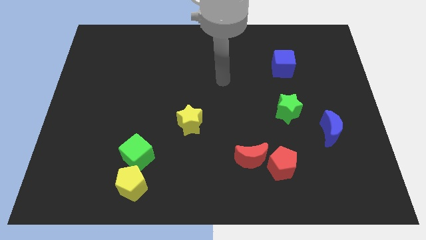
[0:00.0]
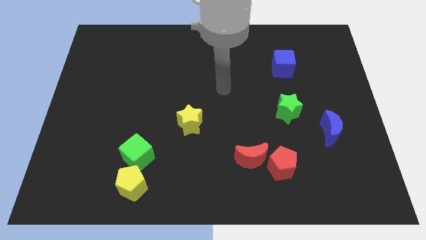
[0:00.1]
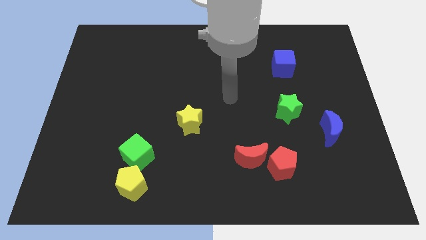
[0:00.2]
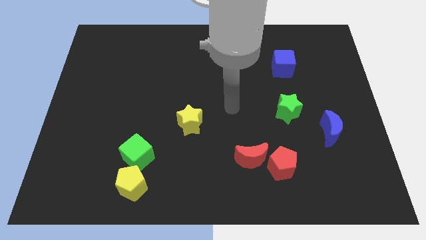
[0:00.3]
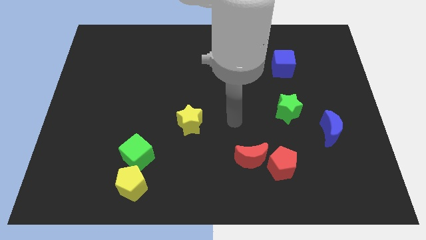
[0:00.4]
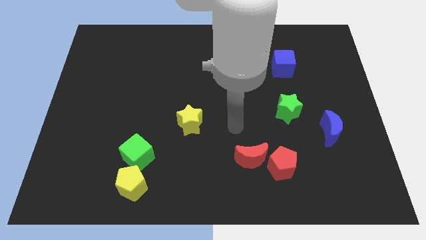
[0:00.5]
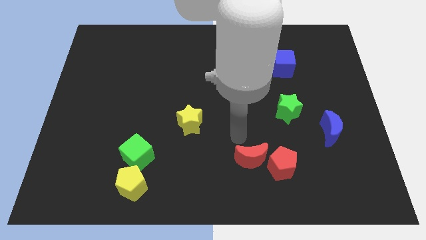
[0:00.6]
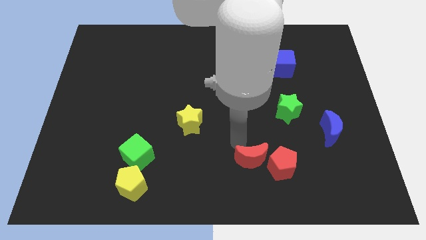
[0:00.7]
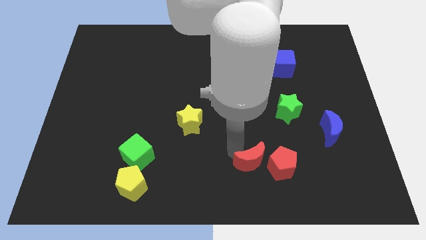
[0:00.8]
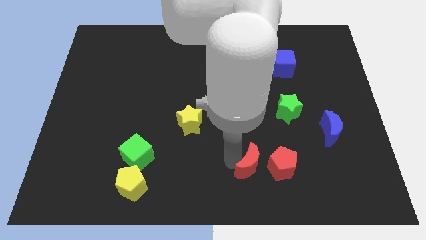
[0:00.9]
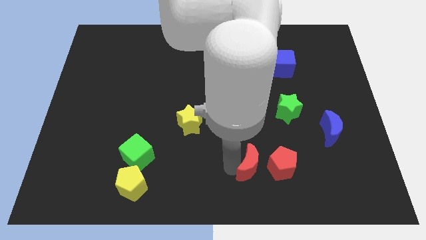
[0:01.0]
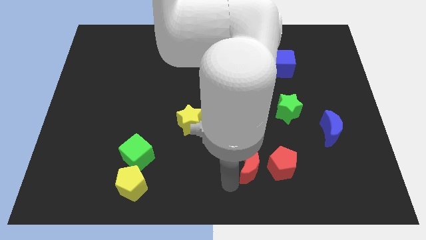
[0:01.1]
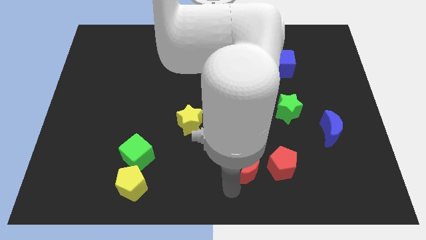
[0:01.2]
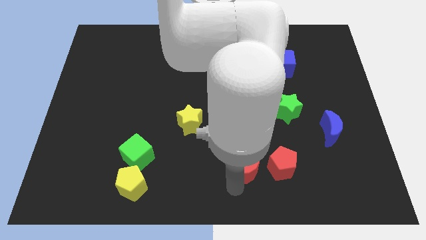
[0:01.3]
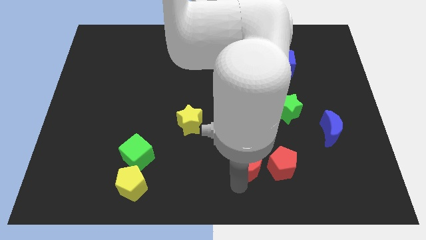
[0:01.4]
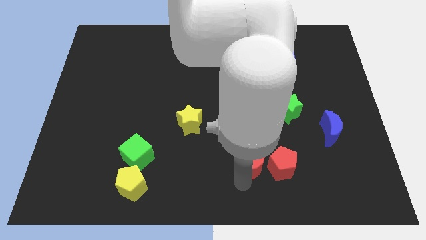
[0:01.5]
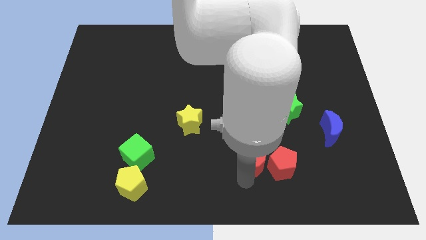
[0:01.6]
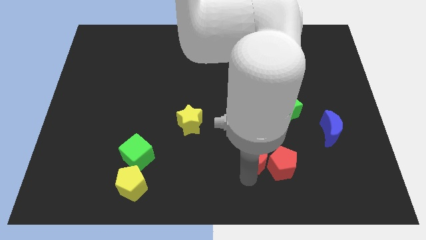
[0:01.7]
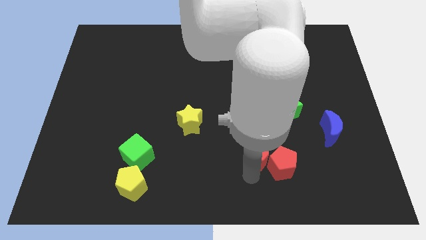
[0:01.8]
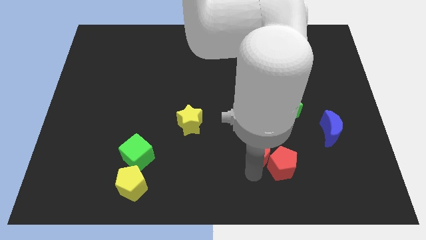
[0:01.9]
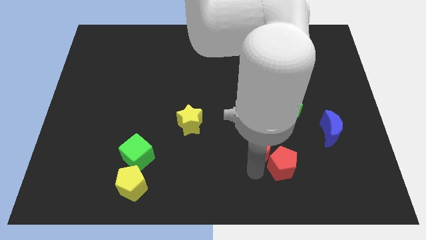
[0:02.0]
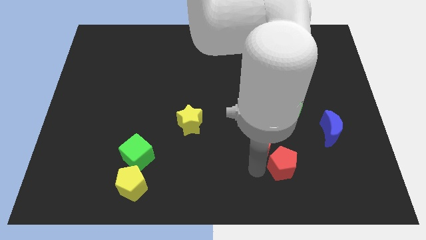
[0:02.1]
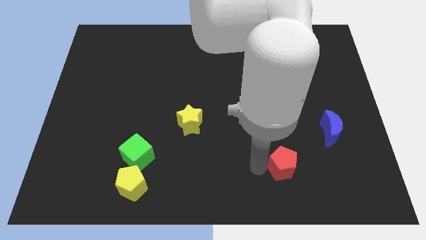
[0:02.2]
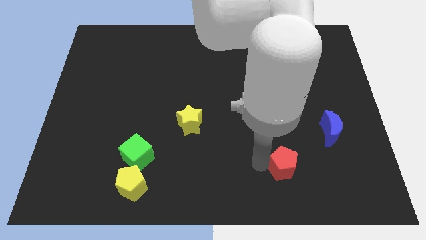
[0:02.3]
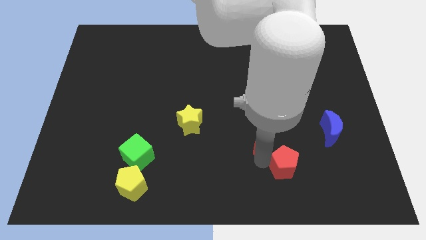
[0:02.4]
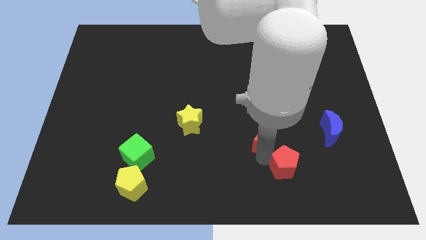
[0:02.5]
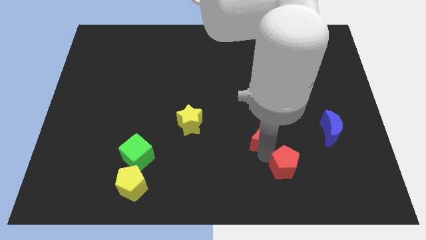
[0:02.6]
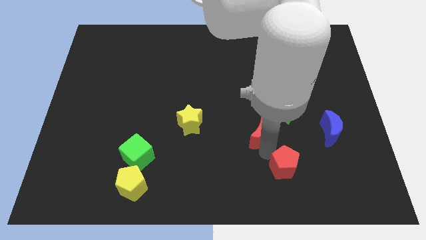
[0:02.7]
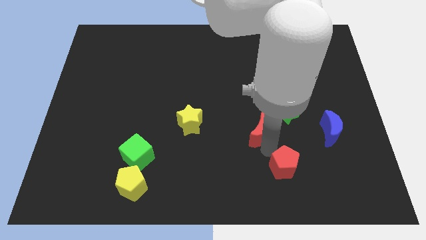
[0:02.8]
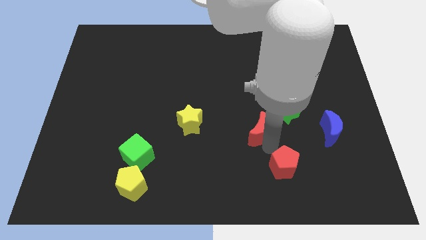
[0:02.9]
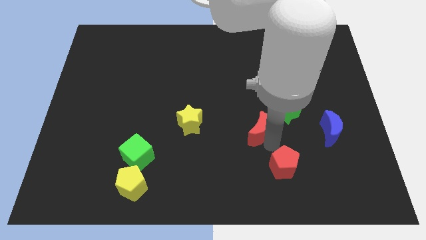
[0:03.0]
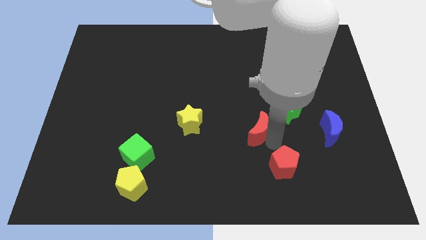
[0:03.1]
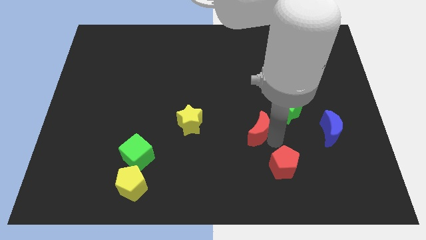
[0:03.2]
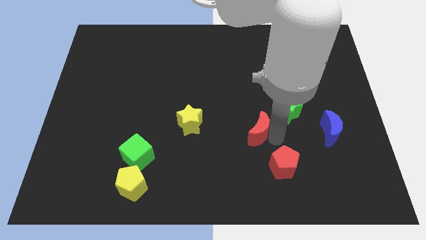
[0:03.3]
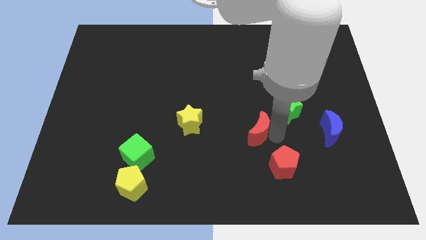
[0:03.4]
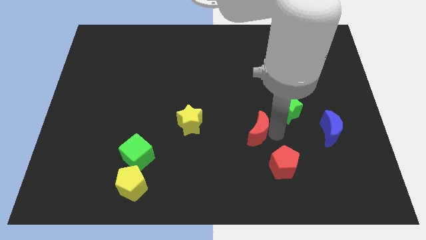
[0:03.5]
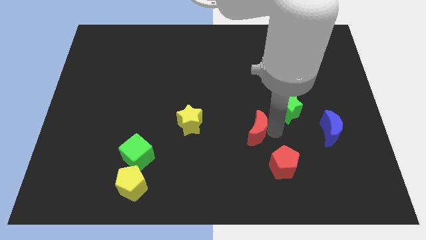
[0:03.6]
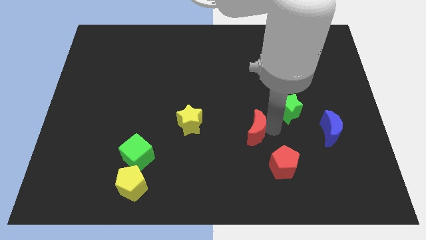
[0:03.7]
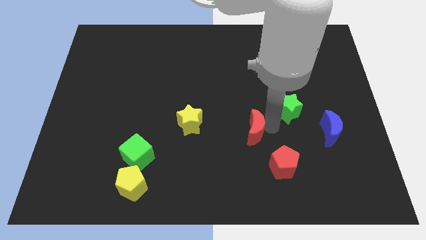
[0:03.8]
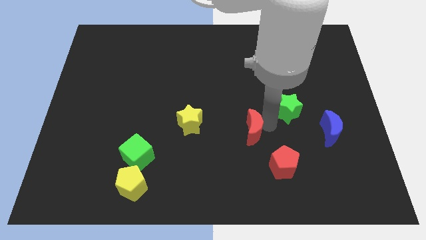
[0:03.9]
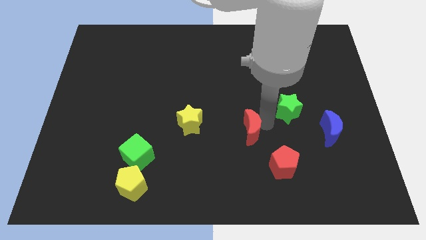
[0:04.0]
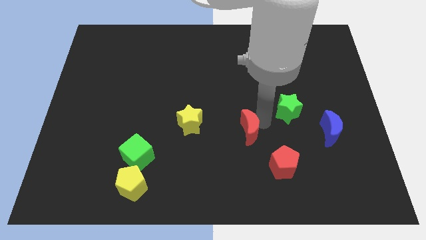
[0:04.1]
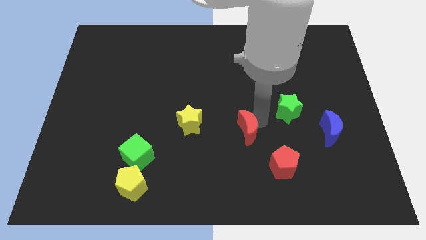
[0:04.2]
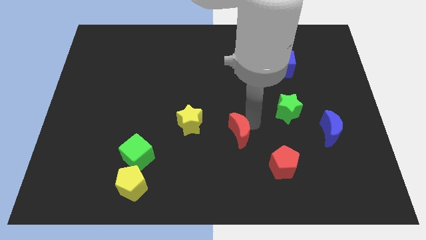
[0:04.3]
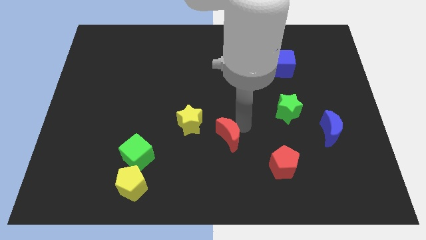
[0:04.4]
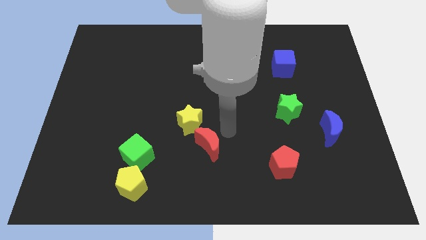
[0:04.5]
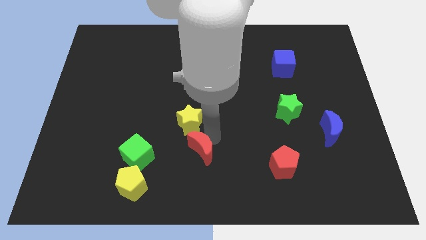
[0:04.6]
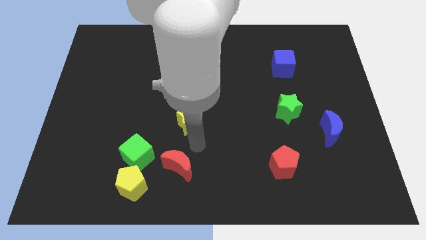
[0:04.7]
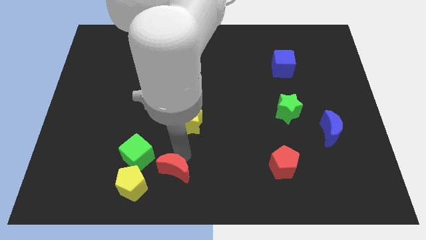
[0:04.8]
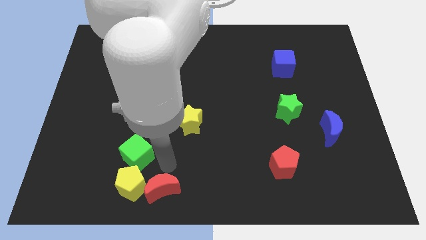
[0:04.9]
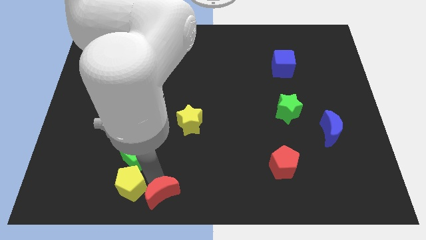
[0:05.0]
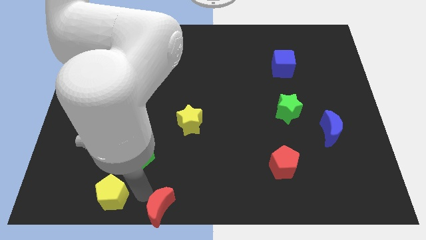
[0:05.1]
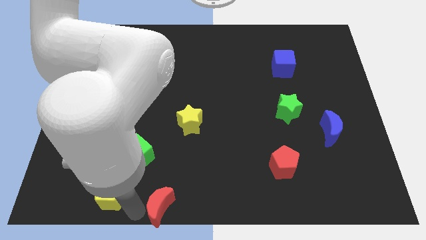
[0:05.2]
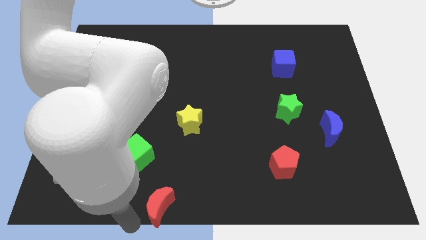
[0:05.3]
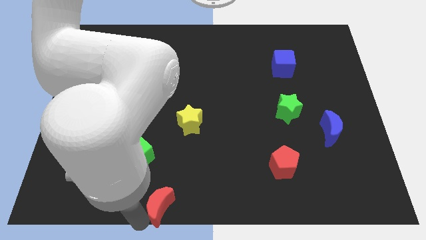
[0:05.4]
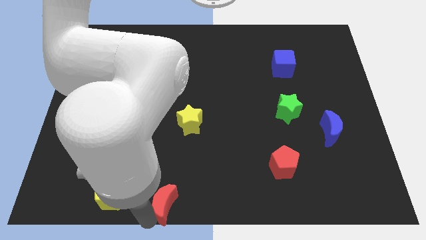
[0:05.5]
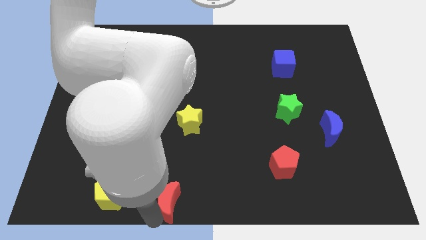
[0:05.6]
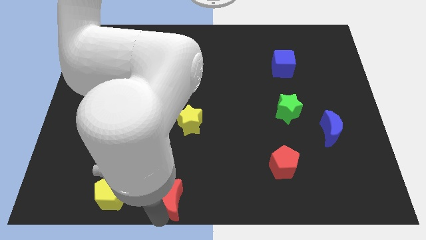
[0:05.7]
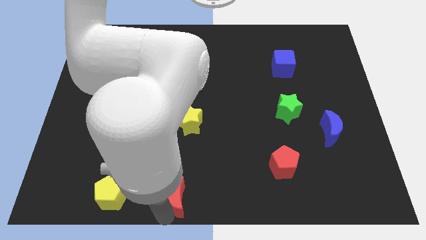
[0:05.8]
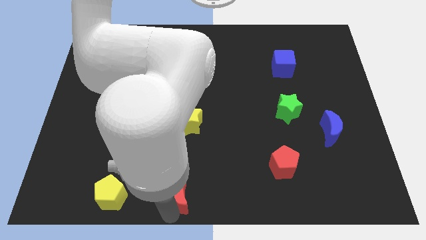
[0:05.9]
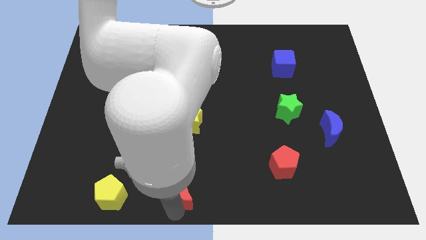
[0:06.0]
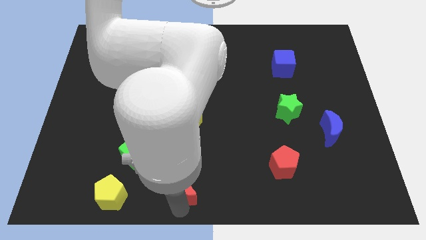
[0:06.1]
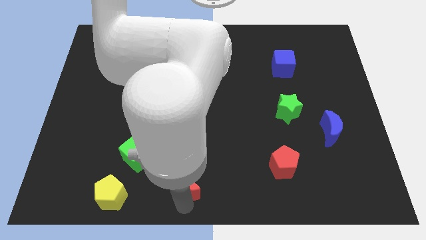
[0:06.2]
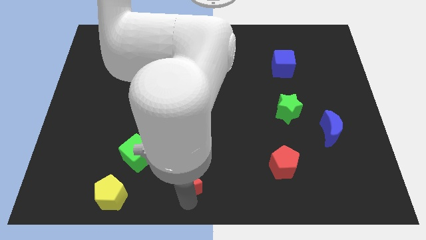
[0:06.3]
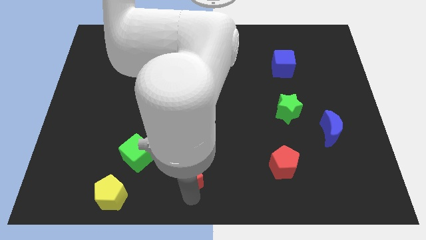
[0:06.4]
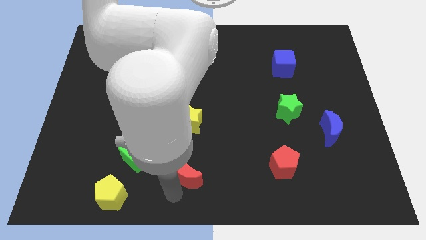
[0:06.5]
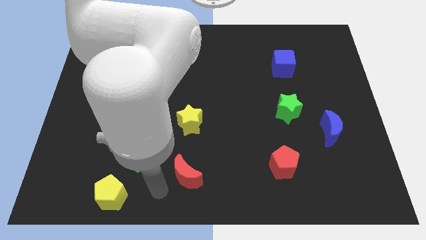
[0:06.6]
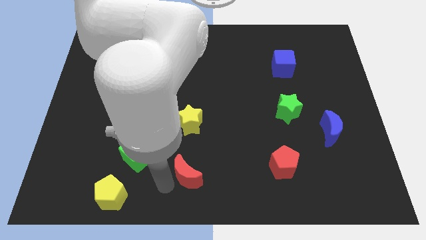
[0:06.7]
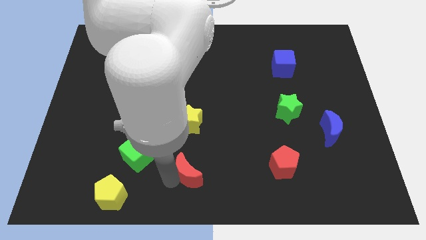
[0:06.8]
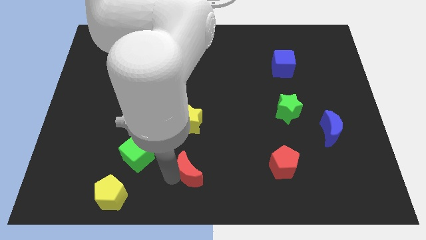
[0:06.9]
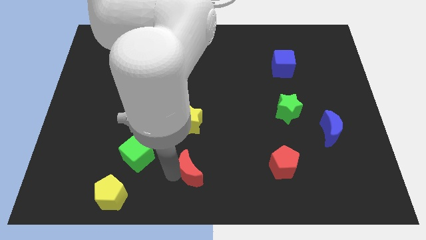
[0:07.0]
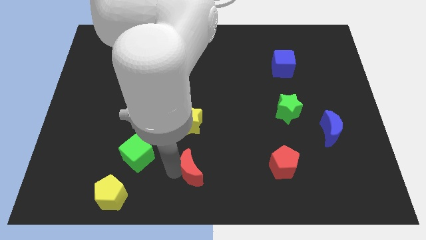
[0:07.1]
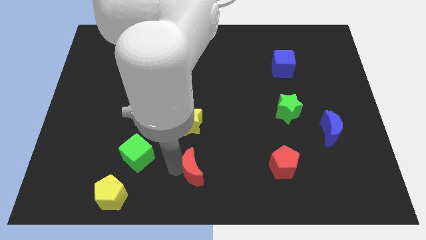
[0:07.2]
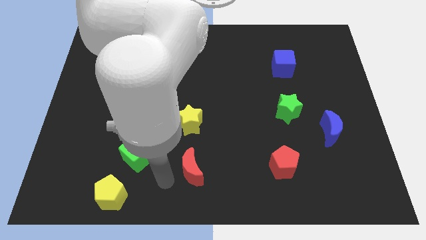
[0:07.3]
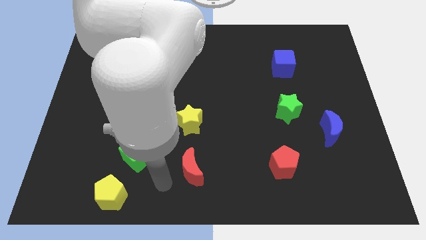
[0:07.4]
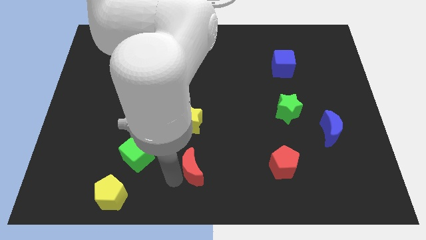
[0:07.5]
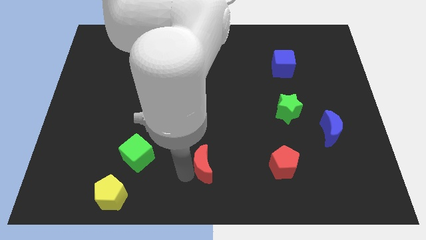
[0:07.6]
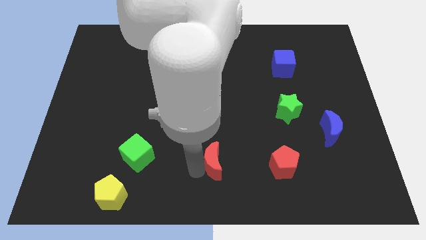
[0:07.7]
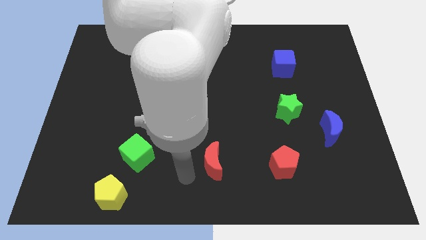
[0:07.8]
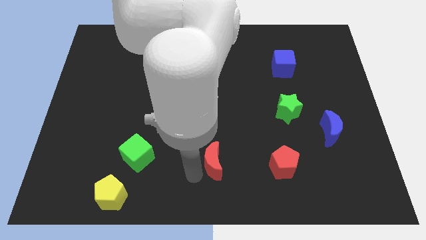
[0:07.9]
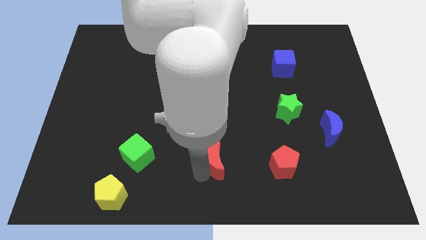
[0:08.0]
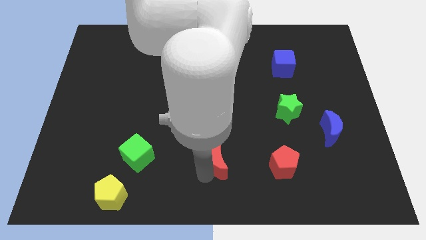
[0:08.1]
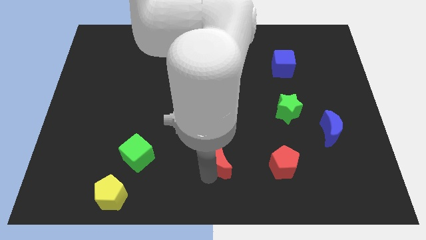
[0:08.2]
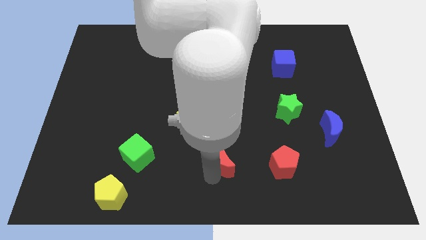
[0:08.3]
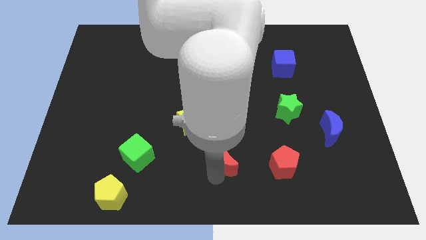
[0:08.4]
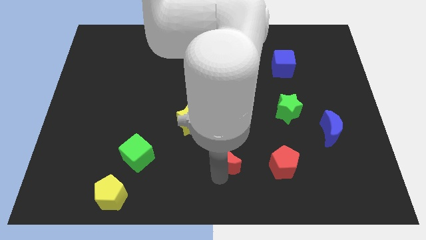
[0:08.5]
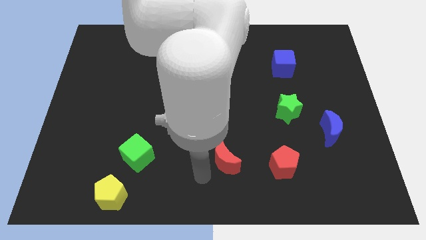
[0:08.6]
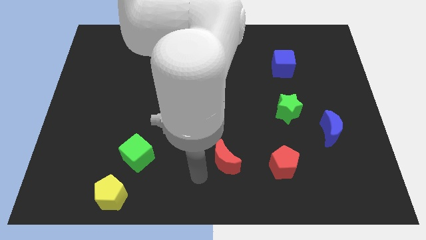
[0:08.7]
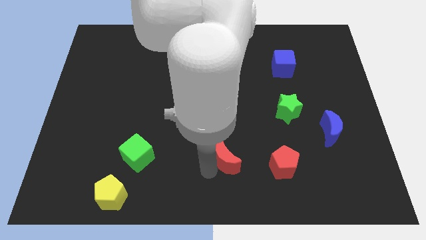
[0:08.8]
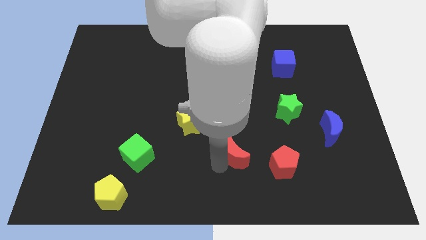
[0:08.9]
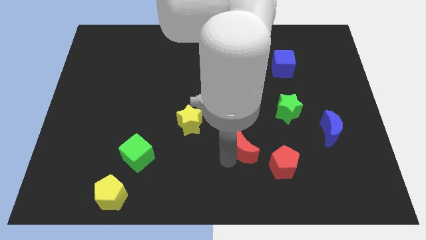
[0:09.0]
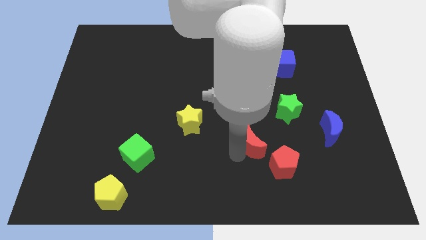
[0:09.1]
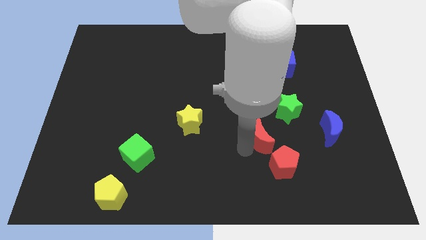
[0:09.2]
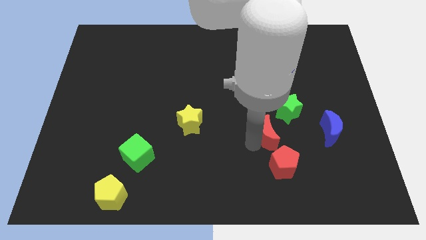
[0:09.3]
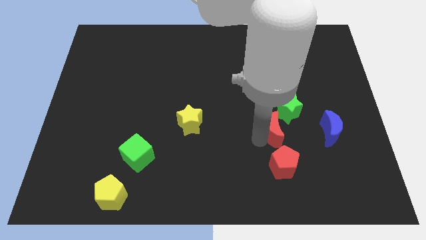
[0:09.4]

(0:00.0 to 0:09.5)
slide the red moon up and to the right diagonally a bit
